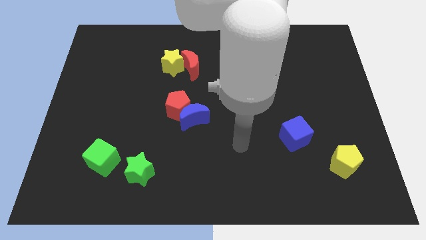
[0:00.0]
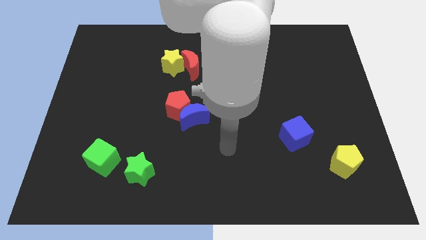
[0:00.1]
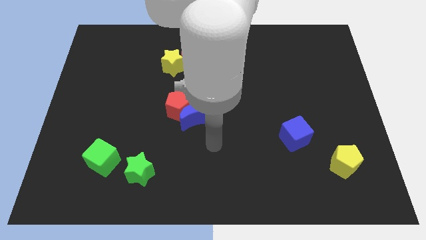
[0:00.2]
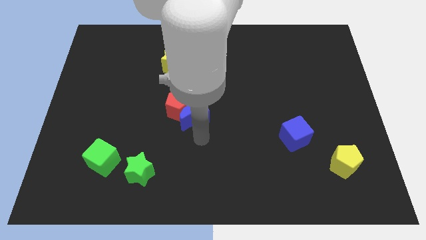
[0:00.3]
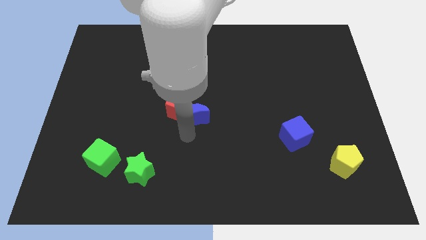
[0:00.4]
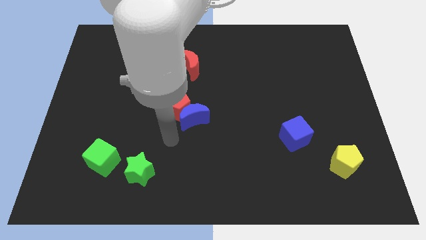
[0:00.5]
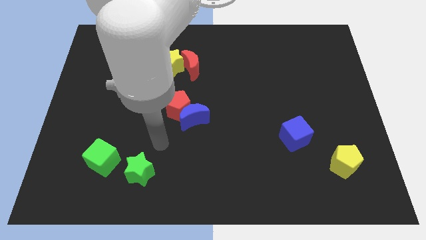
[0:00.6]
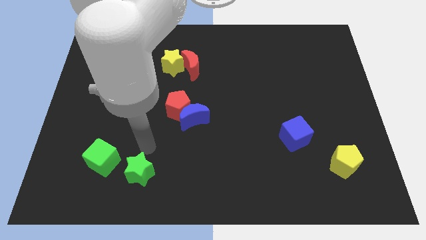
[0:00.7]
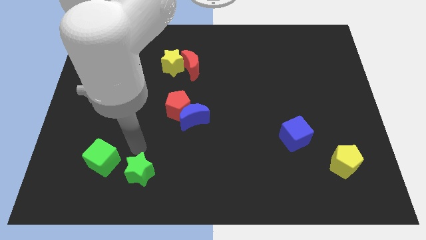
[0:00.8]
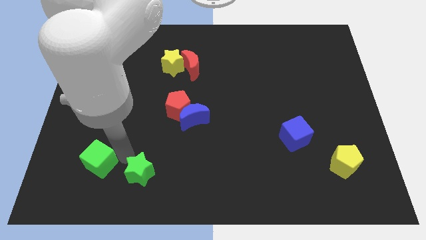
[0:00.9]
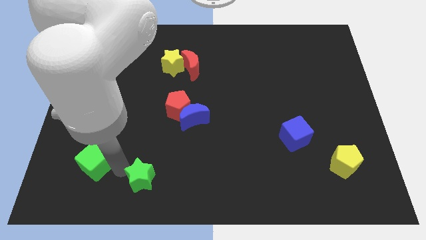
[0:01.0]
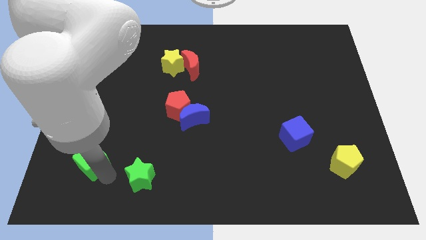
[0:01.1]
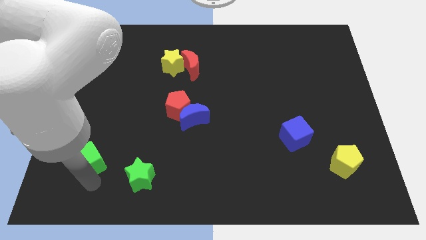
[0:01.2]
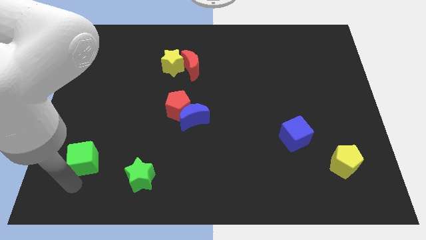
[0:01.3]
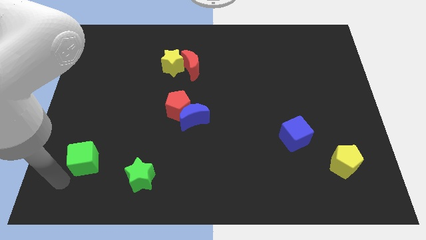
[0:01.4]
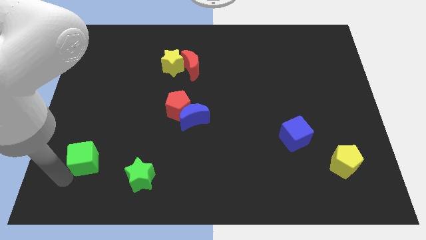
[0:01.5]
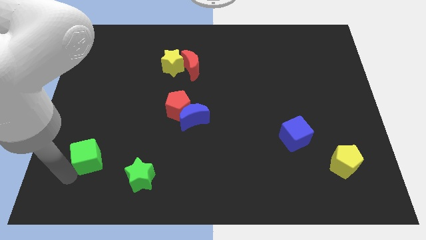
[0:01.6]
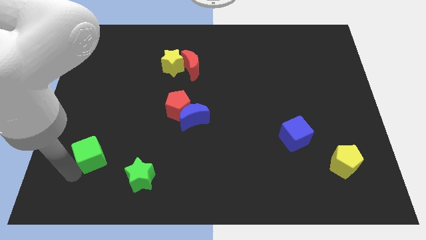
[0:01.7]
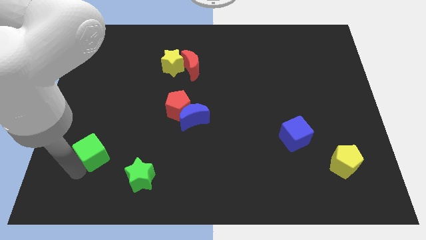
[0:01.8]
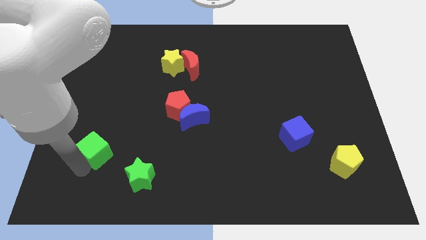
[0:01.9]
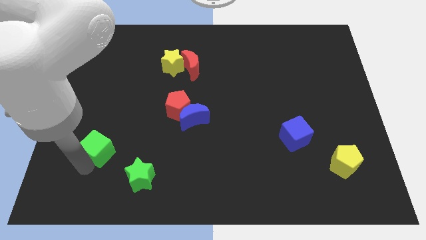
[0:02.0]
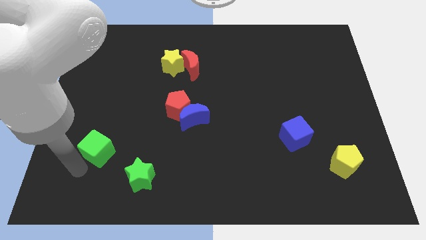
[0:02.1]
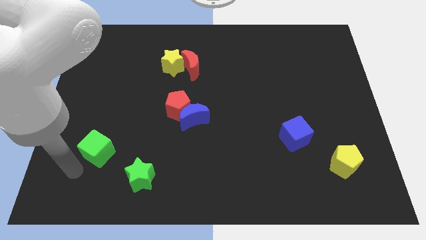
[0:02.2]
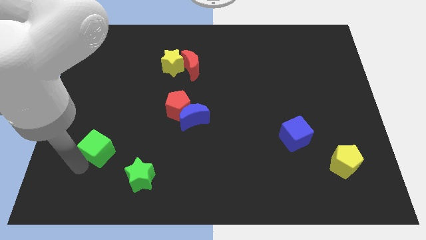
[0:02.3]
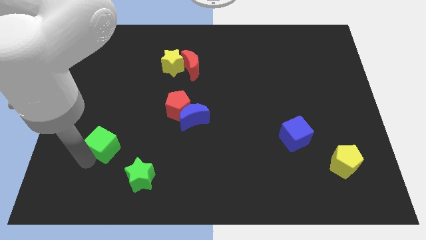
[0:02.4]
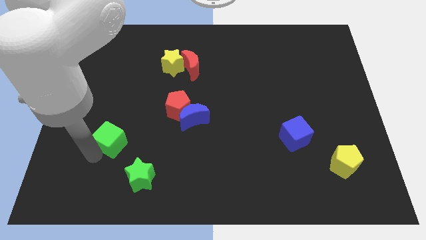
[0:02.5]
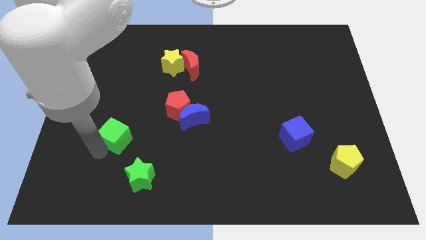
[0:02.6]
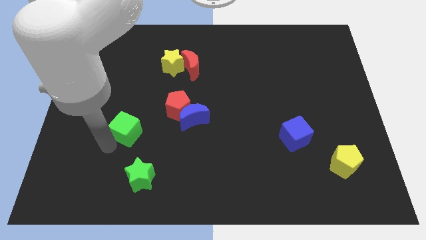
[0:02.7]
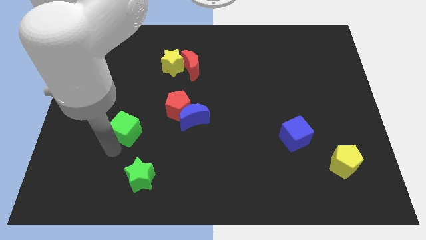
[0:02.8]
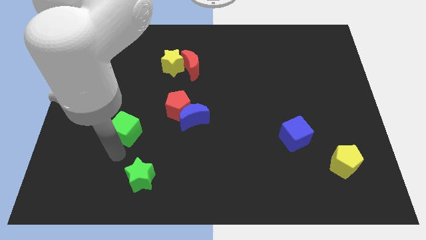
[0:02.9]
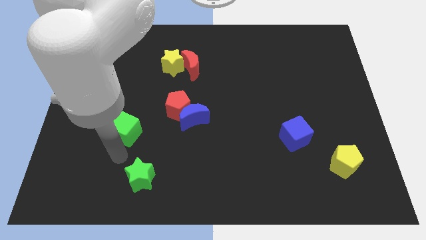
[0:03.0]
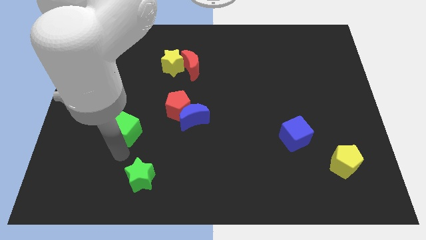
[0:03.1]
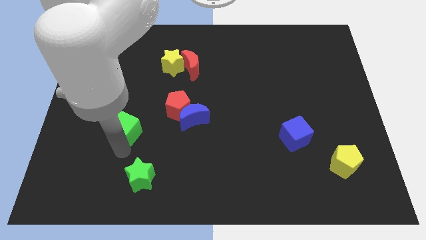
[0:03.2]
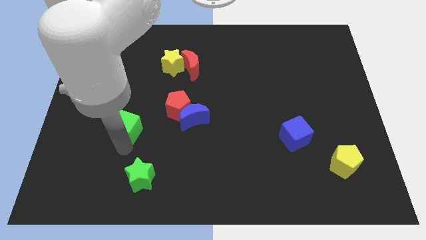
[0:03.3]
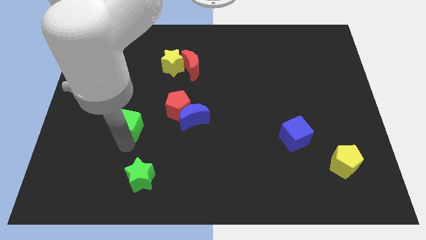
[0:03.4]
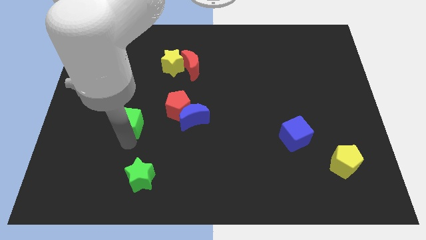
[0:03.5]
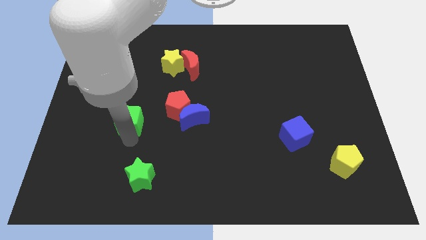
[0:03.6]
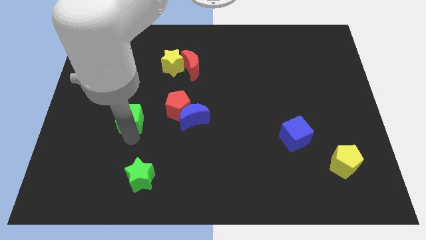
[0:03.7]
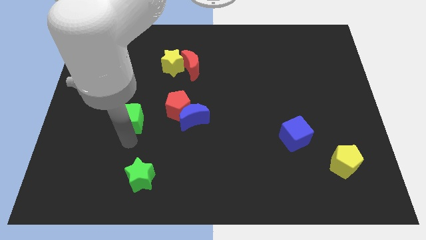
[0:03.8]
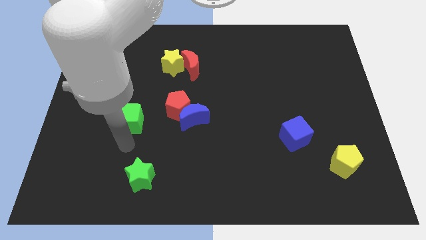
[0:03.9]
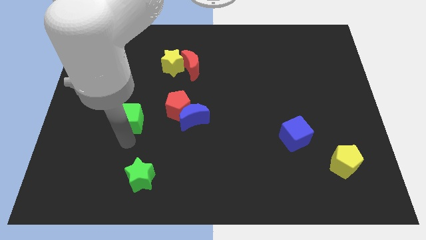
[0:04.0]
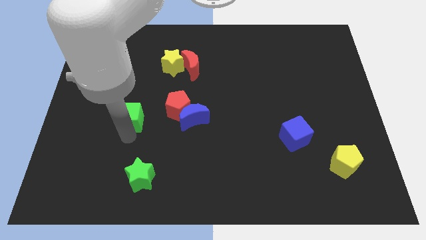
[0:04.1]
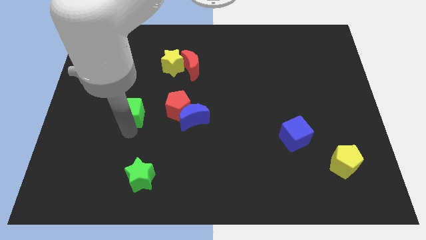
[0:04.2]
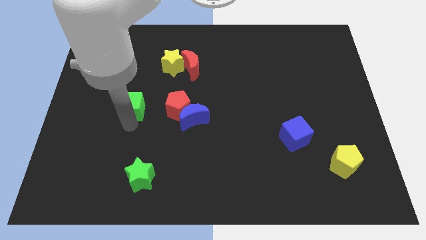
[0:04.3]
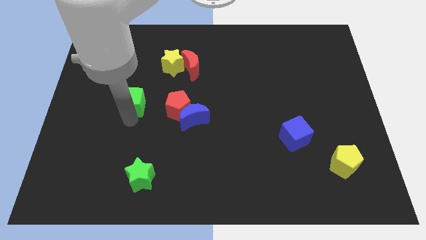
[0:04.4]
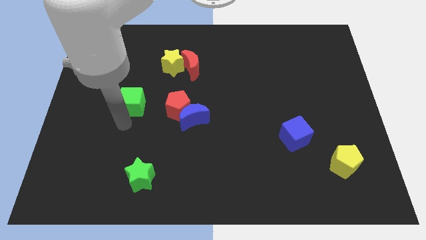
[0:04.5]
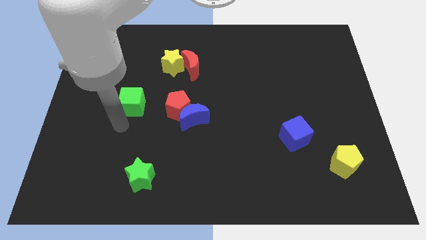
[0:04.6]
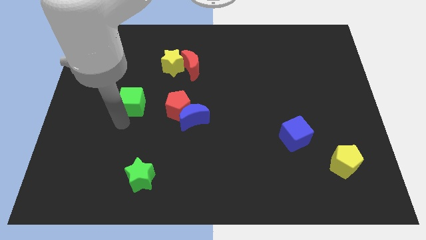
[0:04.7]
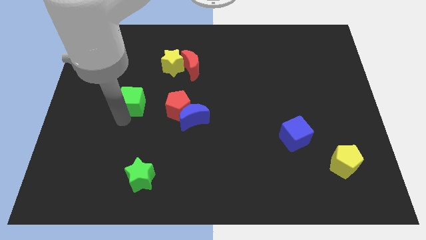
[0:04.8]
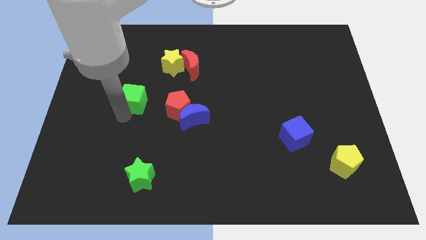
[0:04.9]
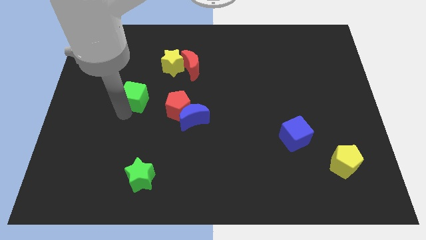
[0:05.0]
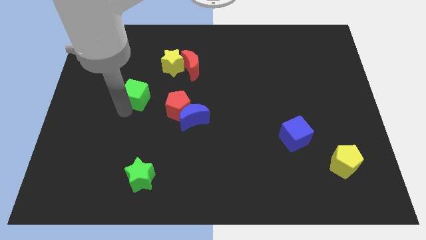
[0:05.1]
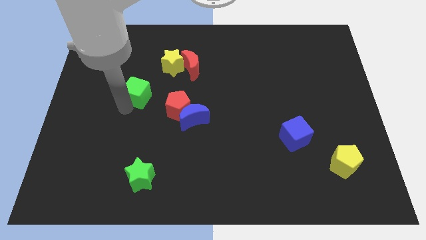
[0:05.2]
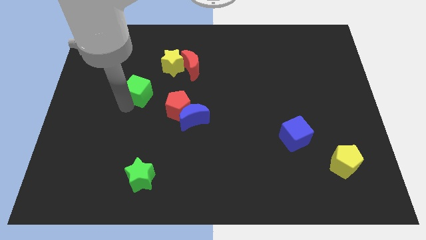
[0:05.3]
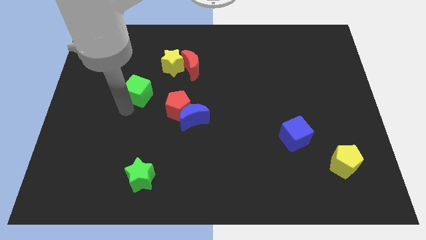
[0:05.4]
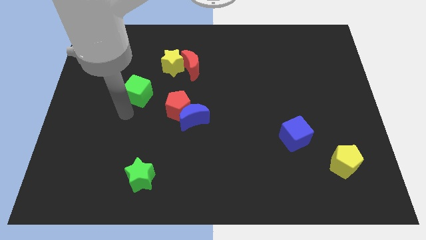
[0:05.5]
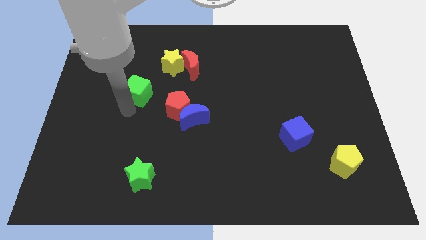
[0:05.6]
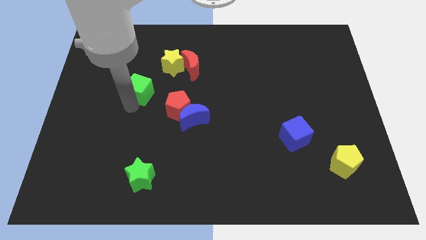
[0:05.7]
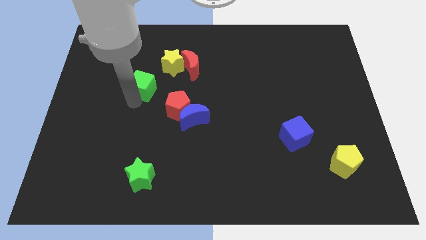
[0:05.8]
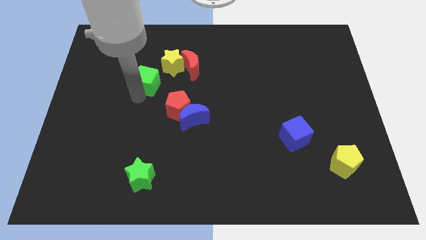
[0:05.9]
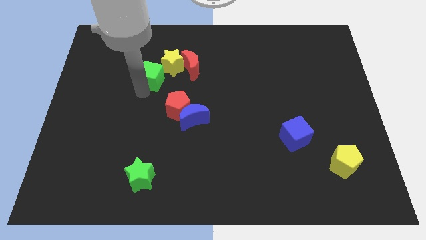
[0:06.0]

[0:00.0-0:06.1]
move the green cube to the left of the red moon

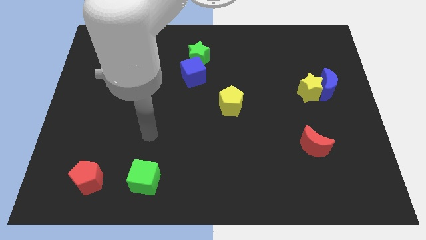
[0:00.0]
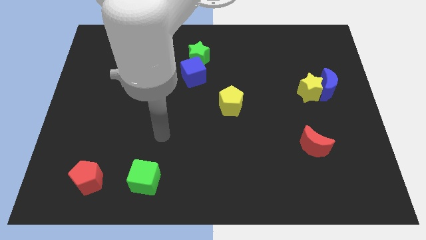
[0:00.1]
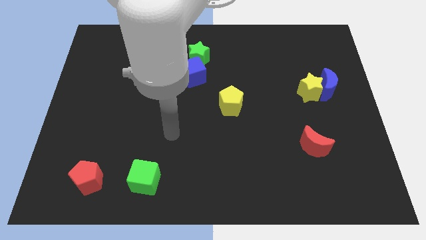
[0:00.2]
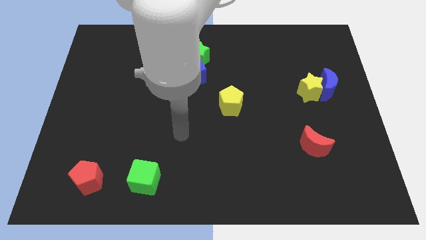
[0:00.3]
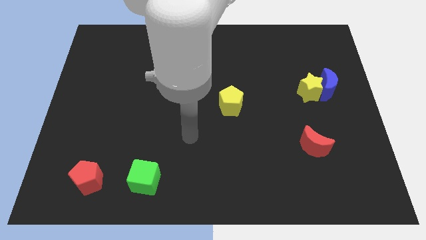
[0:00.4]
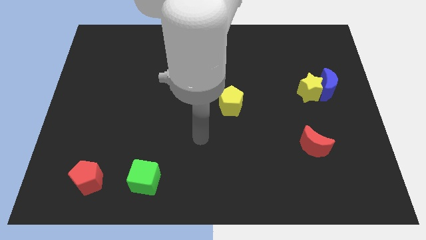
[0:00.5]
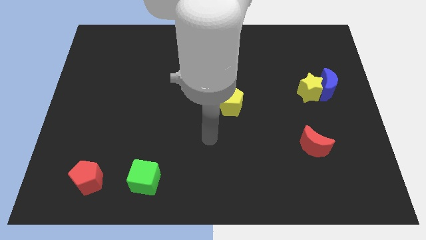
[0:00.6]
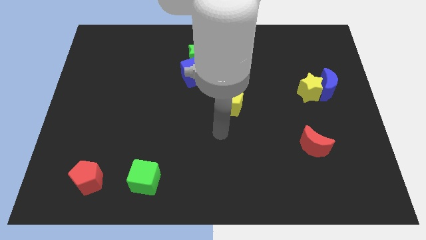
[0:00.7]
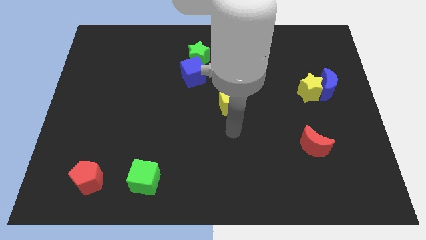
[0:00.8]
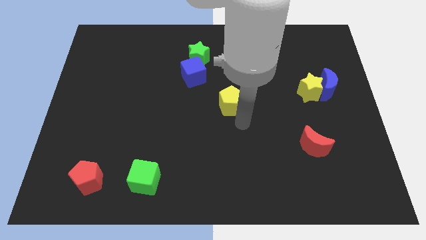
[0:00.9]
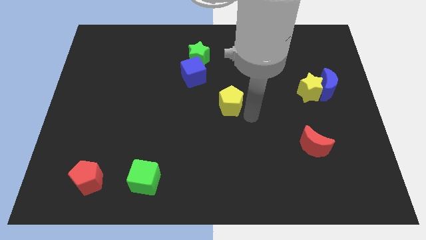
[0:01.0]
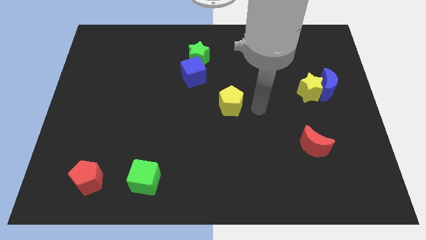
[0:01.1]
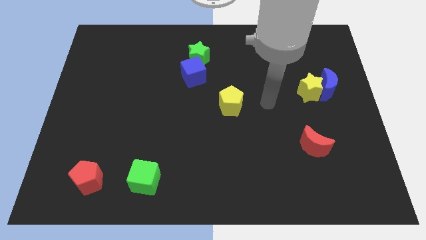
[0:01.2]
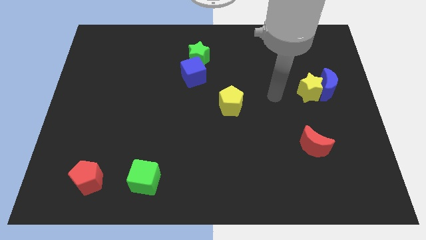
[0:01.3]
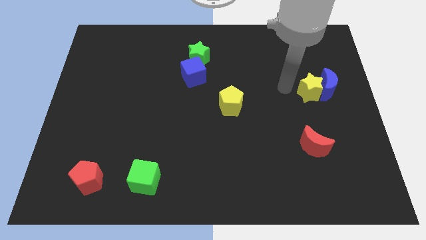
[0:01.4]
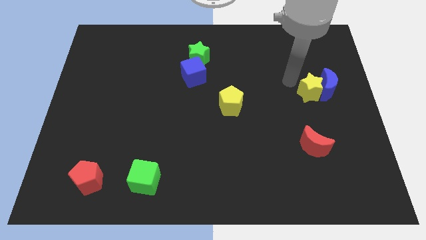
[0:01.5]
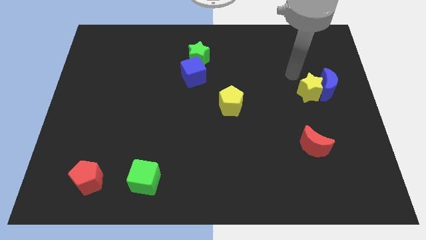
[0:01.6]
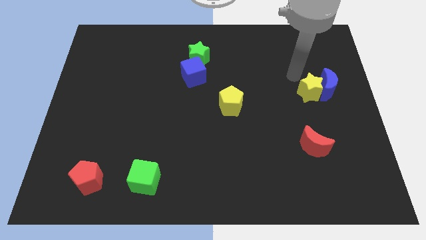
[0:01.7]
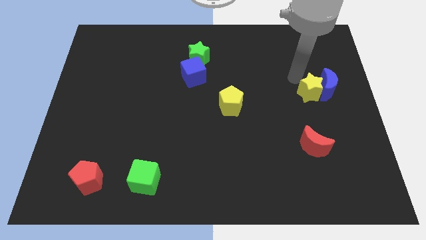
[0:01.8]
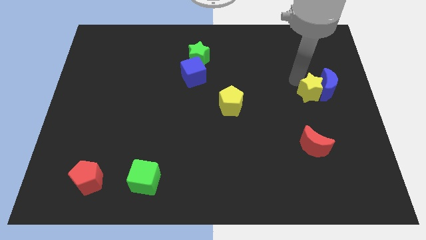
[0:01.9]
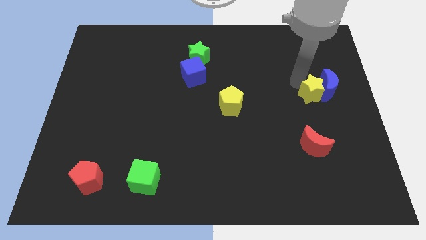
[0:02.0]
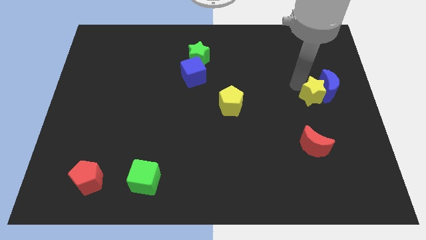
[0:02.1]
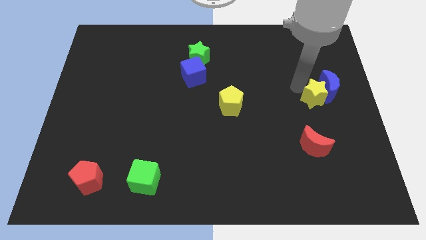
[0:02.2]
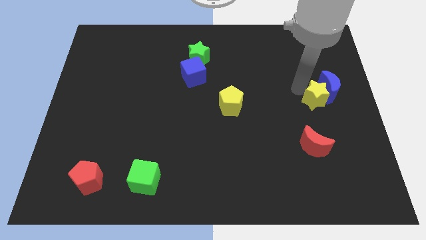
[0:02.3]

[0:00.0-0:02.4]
slide the yellow star to the bottom of the blue moon
